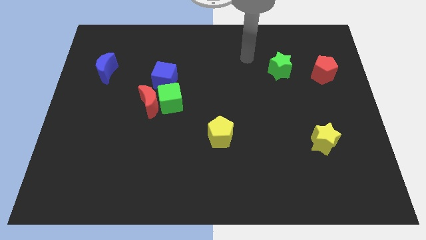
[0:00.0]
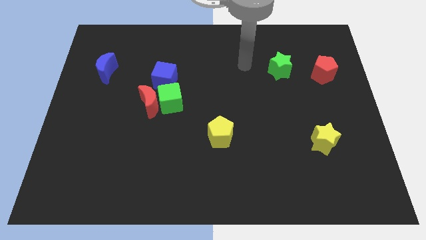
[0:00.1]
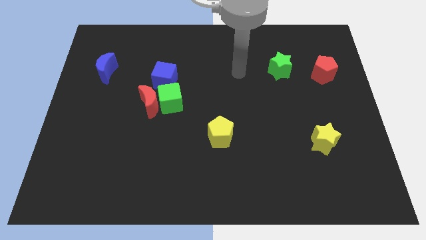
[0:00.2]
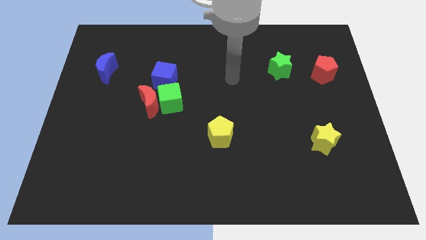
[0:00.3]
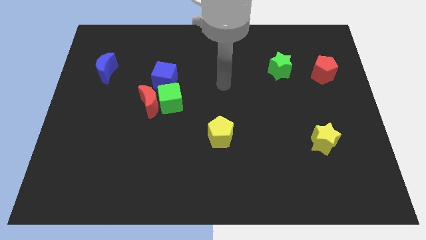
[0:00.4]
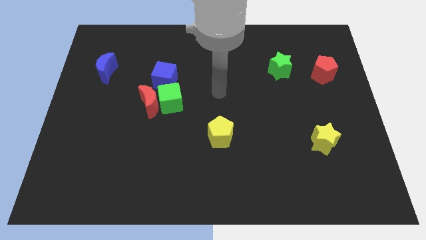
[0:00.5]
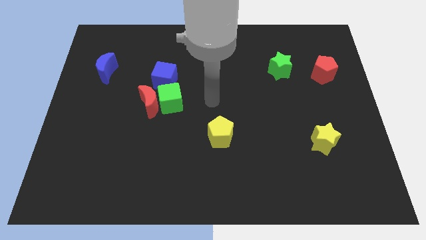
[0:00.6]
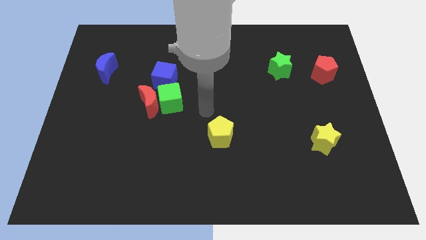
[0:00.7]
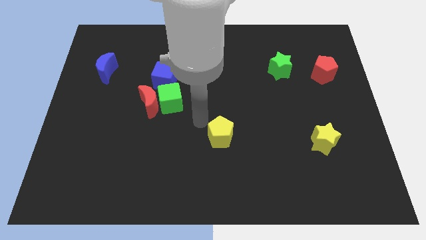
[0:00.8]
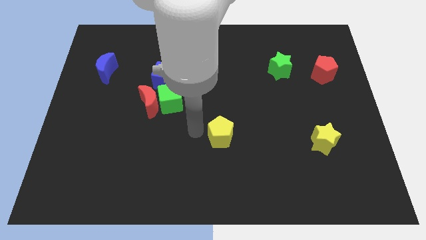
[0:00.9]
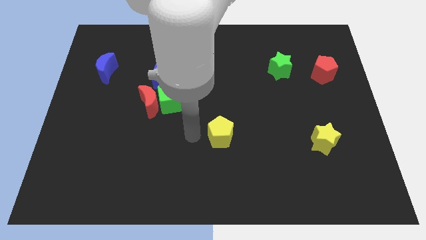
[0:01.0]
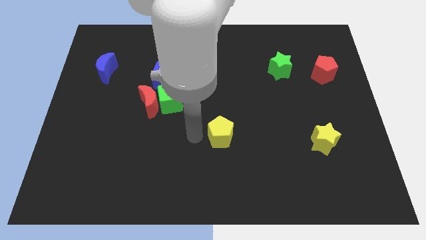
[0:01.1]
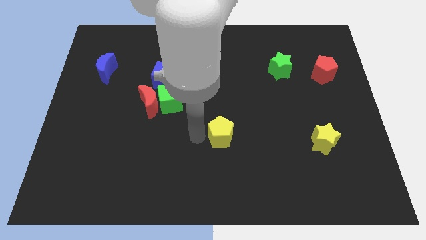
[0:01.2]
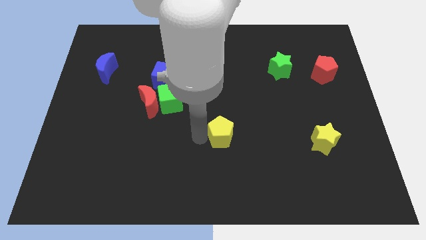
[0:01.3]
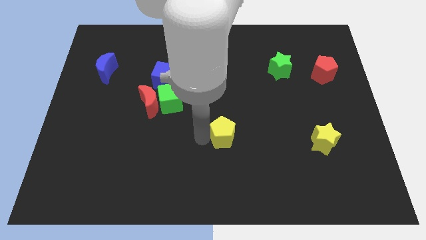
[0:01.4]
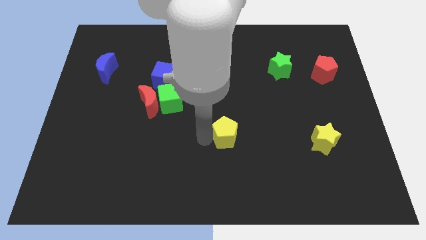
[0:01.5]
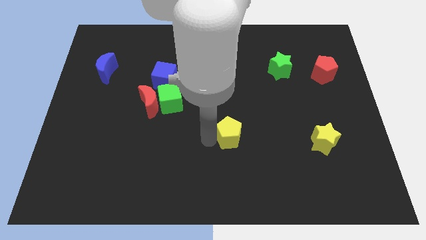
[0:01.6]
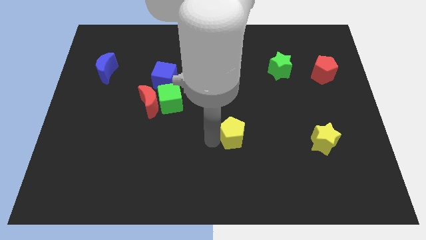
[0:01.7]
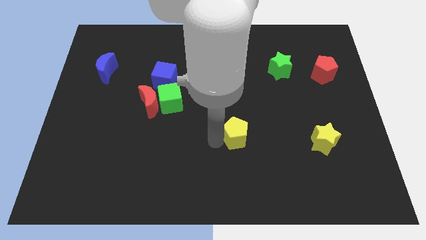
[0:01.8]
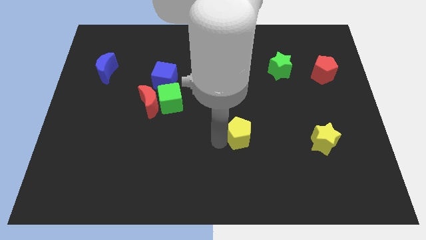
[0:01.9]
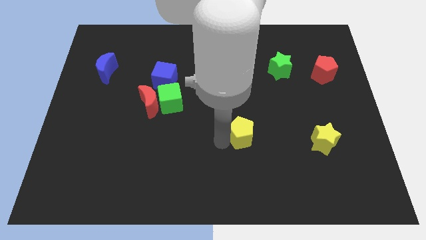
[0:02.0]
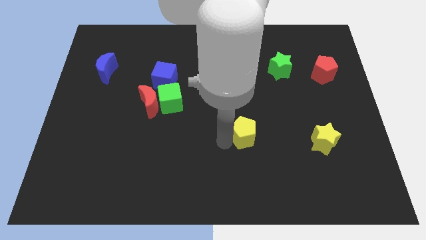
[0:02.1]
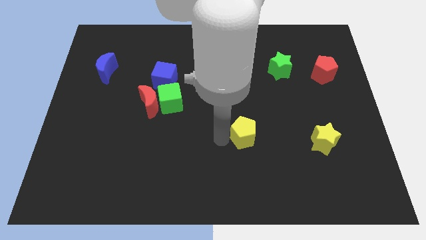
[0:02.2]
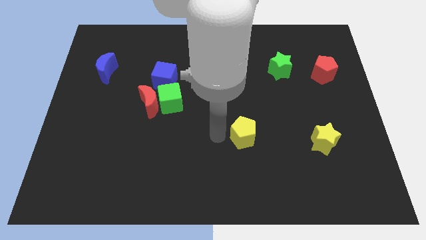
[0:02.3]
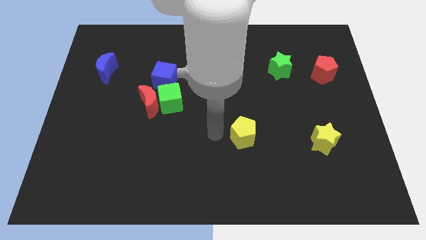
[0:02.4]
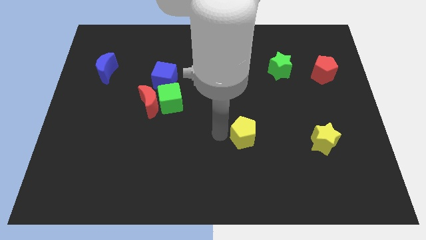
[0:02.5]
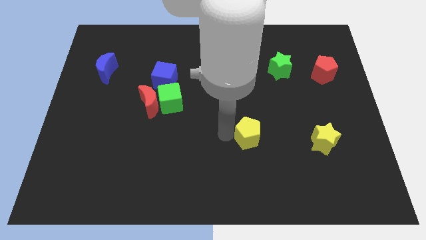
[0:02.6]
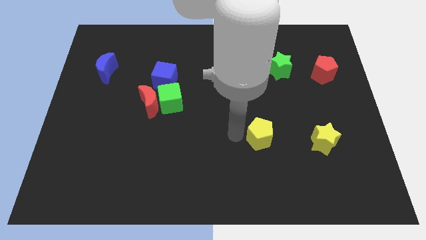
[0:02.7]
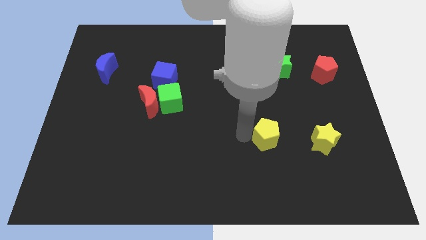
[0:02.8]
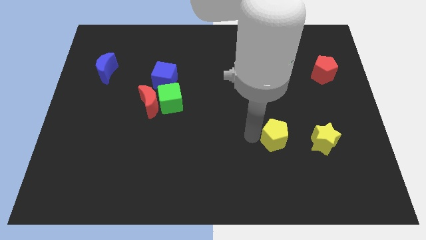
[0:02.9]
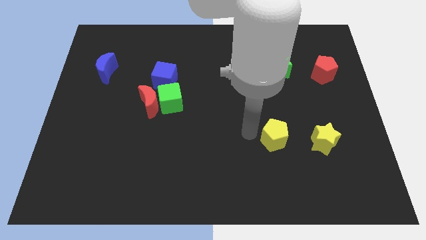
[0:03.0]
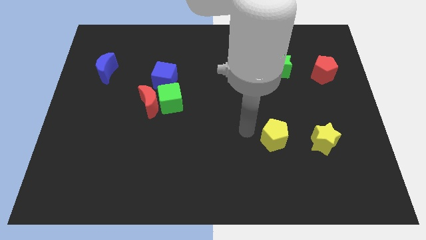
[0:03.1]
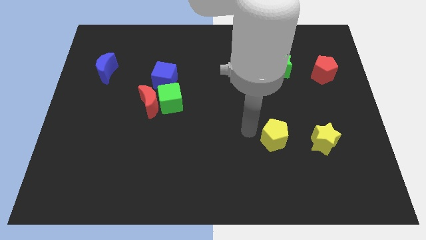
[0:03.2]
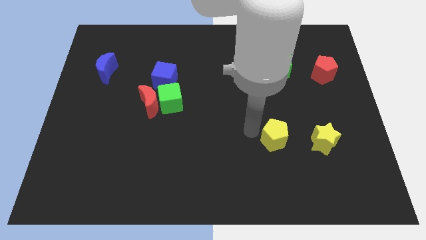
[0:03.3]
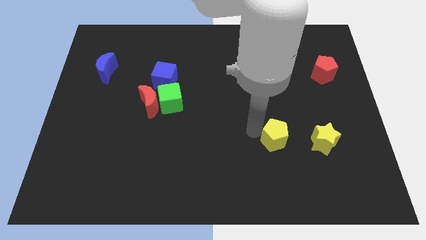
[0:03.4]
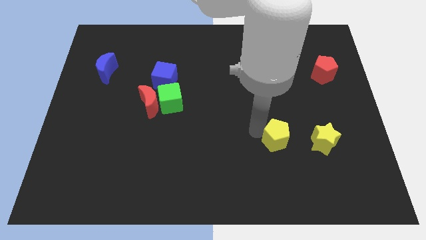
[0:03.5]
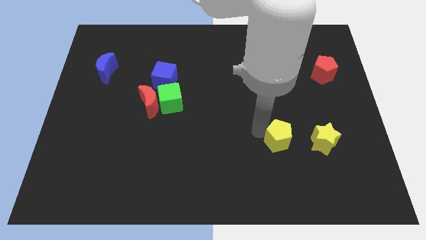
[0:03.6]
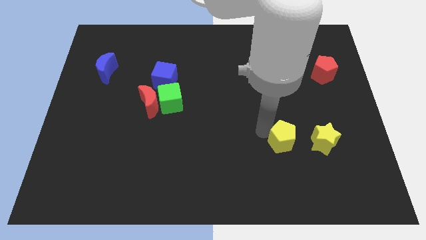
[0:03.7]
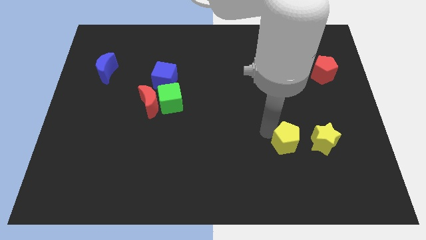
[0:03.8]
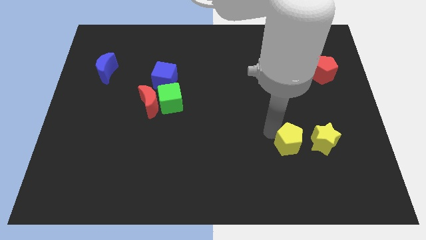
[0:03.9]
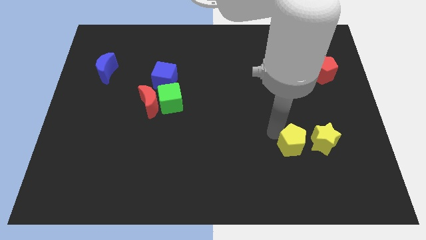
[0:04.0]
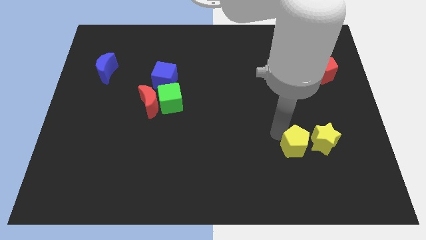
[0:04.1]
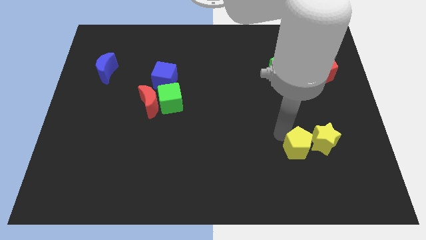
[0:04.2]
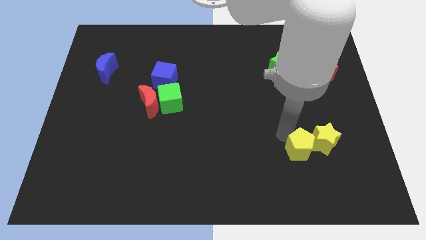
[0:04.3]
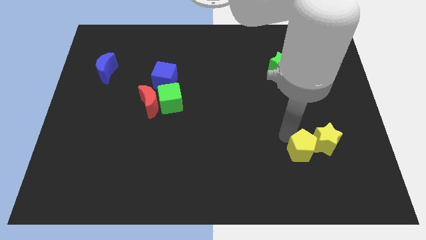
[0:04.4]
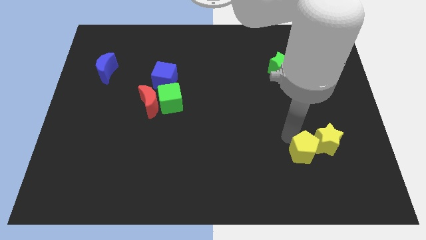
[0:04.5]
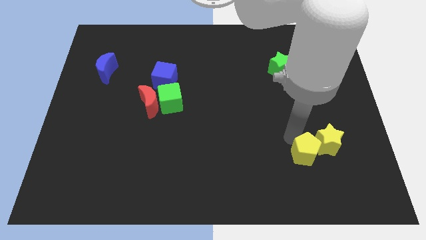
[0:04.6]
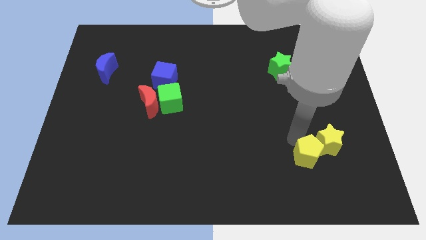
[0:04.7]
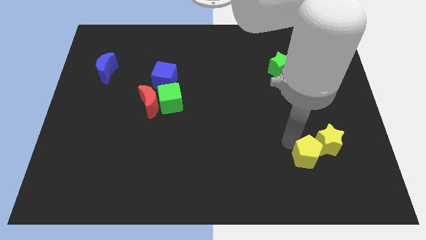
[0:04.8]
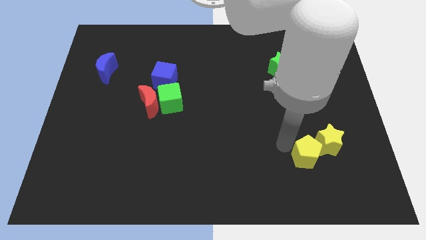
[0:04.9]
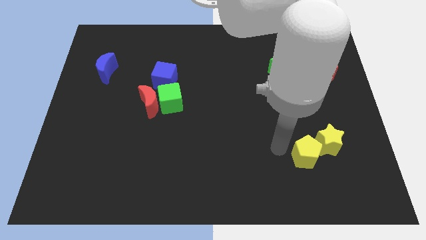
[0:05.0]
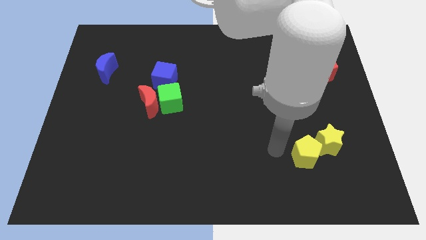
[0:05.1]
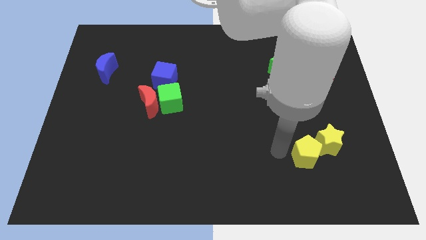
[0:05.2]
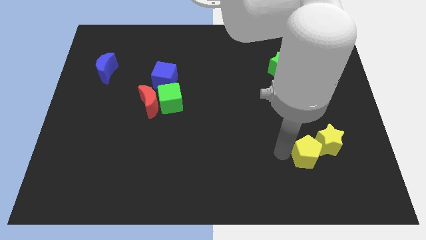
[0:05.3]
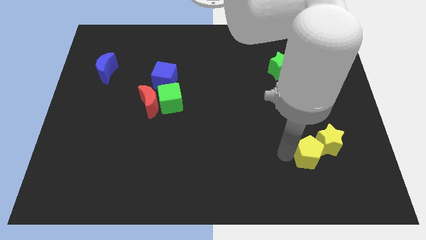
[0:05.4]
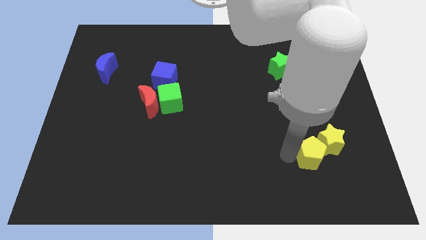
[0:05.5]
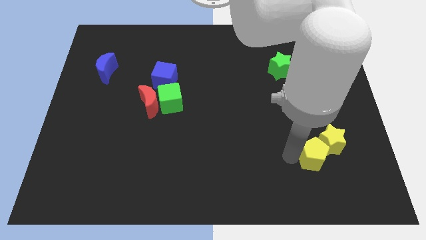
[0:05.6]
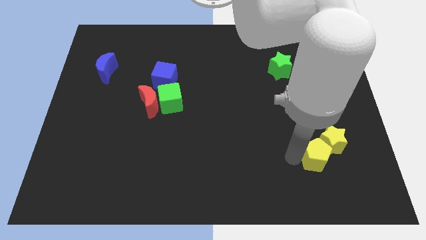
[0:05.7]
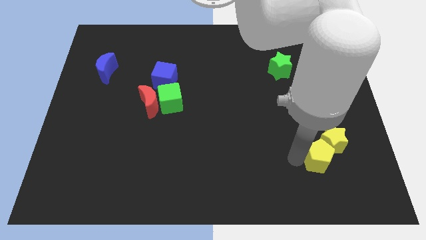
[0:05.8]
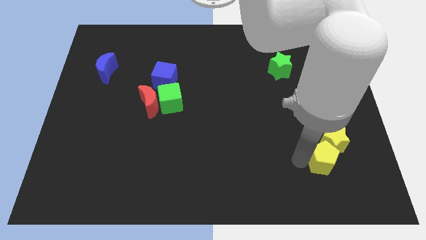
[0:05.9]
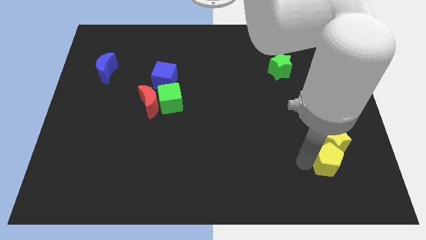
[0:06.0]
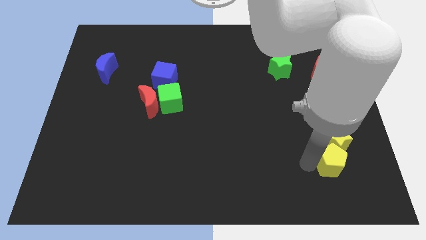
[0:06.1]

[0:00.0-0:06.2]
move the yellow pentagon to the bottom right of the yellow star

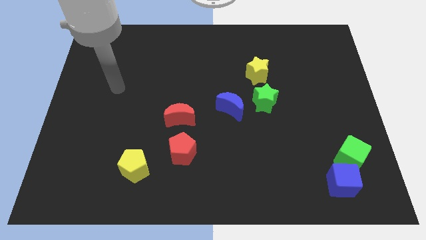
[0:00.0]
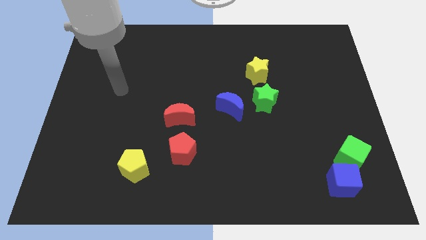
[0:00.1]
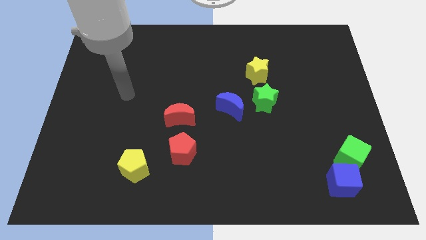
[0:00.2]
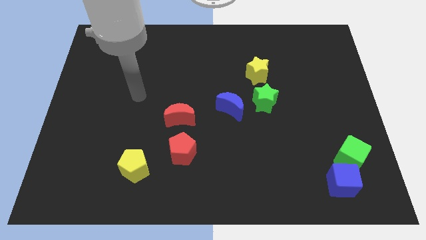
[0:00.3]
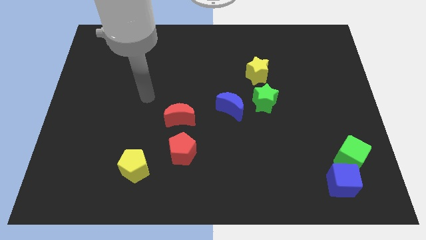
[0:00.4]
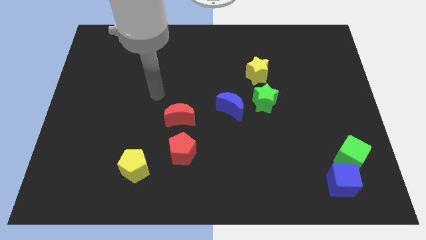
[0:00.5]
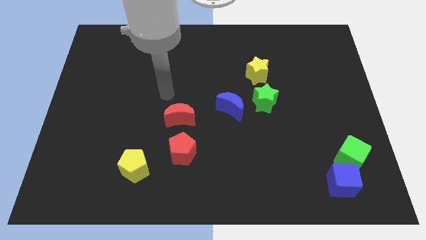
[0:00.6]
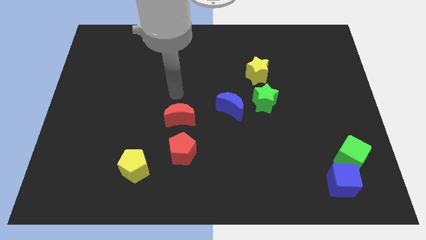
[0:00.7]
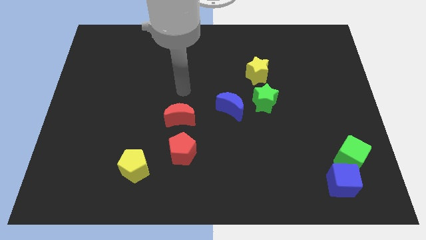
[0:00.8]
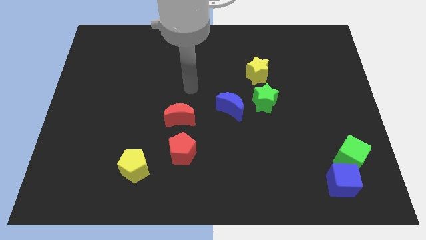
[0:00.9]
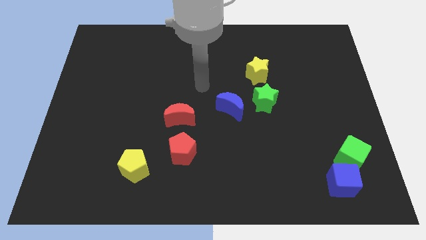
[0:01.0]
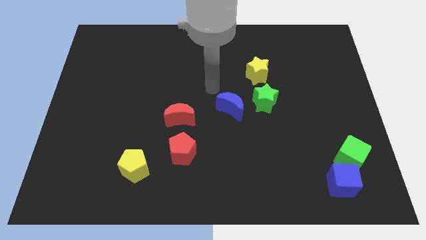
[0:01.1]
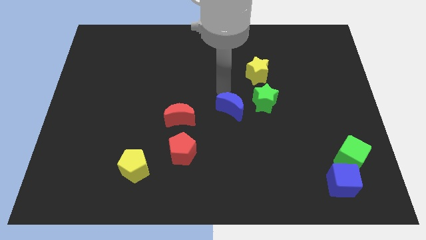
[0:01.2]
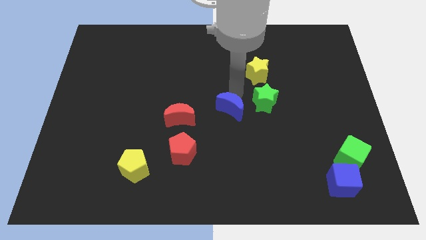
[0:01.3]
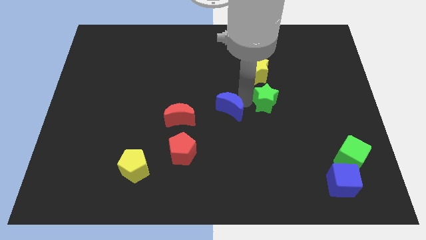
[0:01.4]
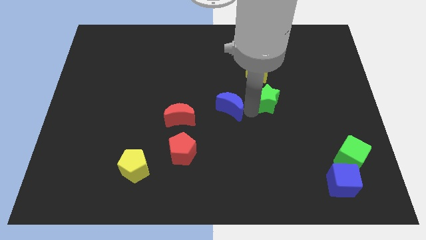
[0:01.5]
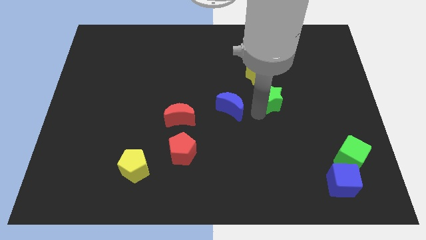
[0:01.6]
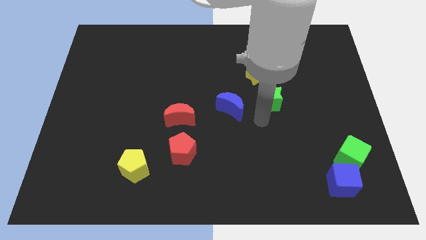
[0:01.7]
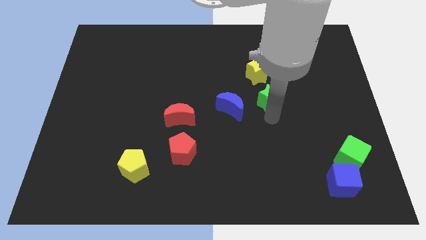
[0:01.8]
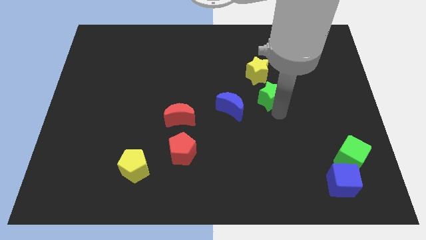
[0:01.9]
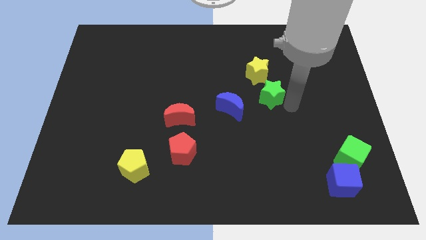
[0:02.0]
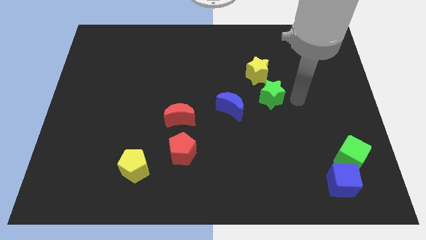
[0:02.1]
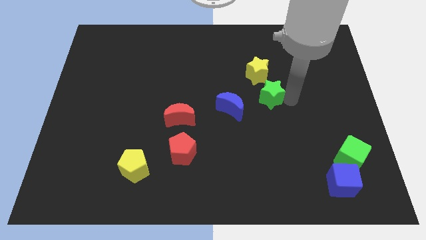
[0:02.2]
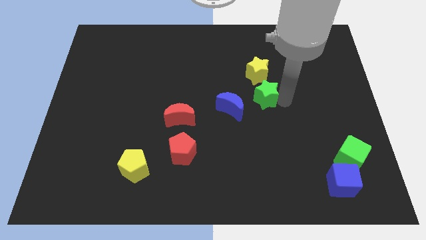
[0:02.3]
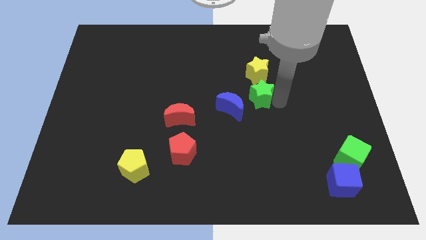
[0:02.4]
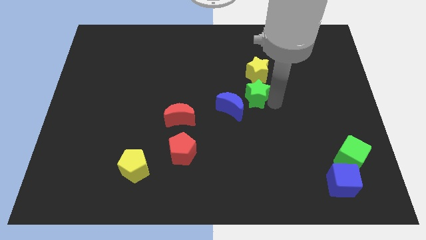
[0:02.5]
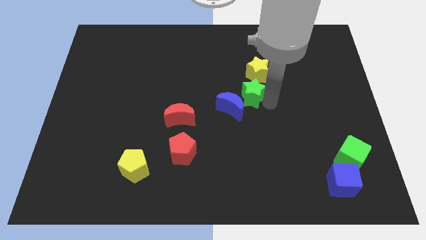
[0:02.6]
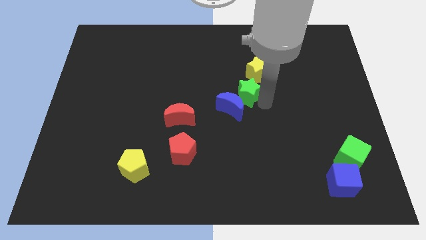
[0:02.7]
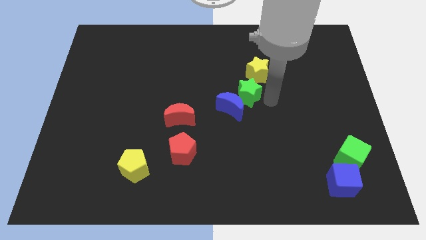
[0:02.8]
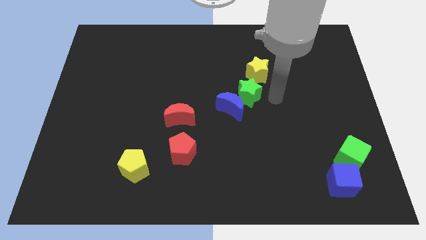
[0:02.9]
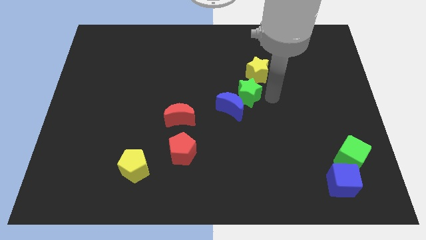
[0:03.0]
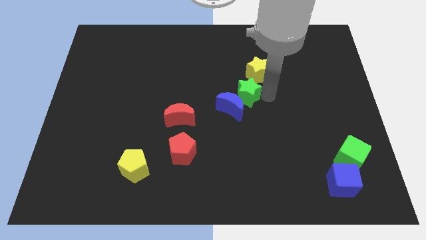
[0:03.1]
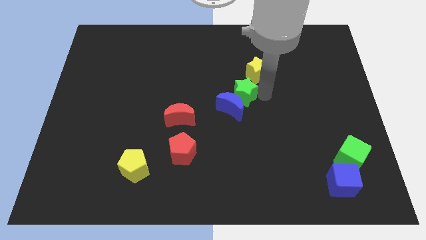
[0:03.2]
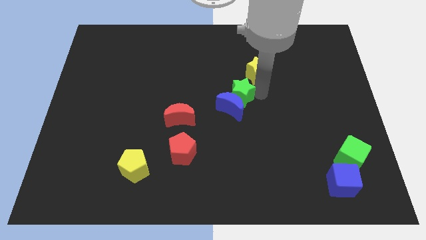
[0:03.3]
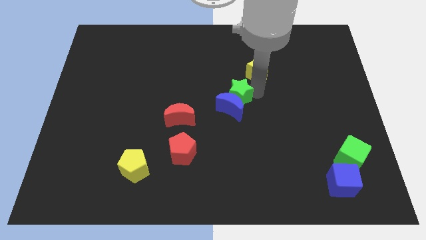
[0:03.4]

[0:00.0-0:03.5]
slide the green star to the top left side of the blue moon
